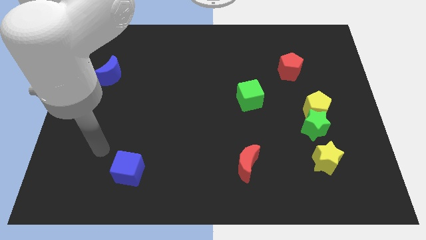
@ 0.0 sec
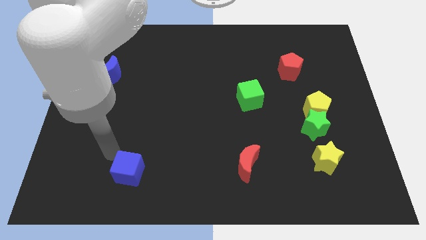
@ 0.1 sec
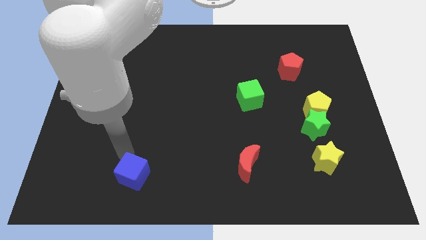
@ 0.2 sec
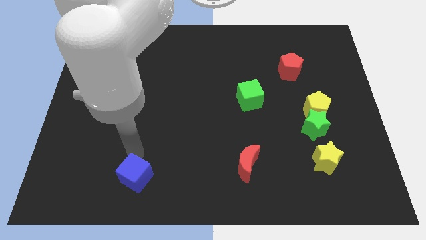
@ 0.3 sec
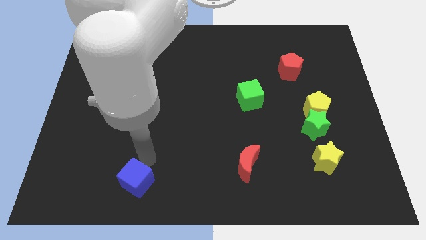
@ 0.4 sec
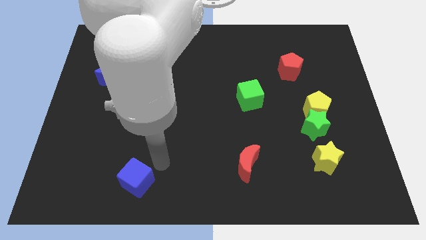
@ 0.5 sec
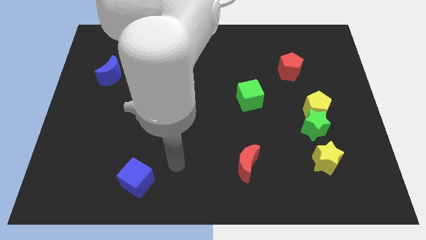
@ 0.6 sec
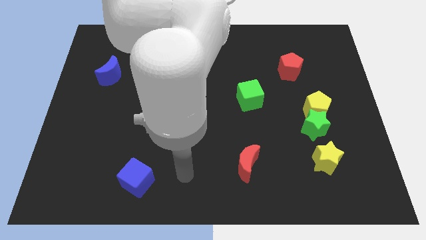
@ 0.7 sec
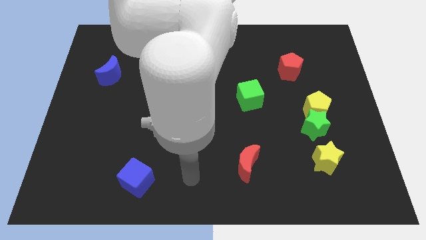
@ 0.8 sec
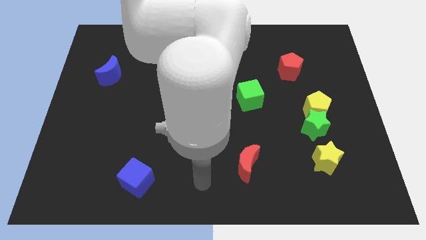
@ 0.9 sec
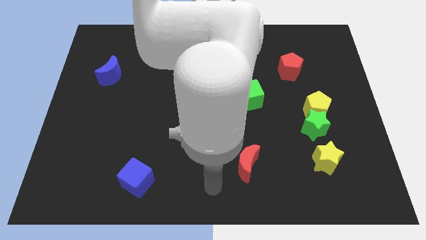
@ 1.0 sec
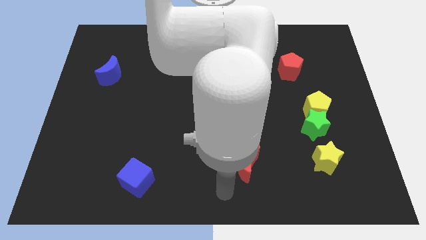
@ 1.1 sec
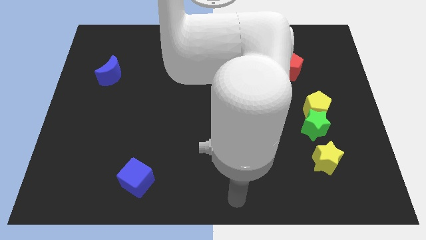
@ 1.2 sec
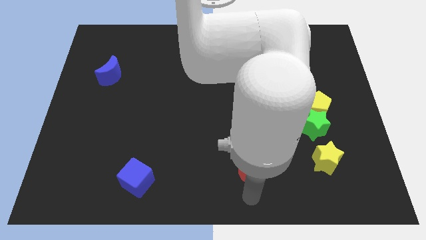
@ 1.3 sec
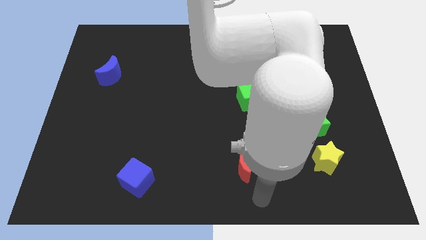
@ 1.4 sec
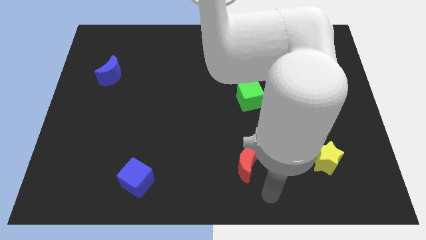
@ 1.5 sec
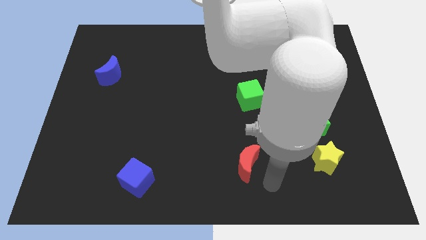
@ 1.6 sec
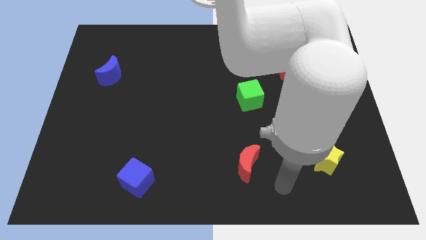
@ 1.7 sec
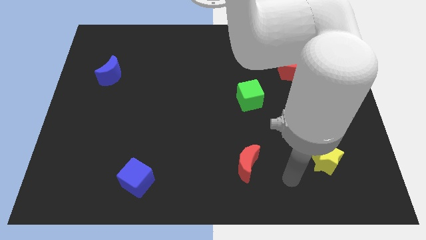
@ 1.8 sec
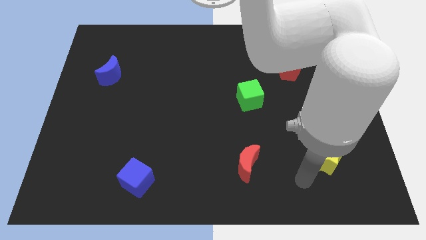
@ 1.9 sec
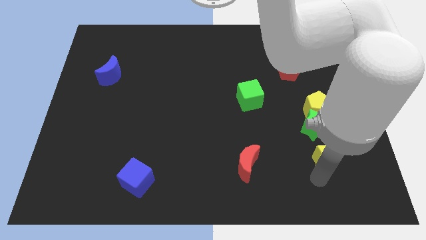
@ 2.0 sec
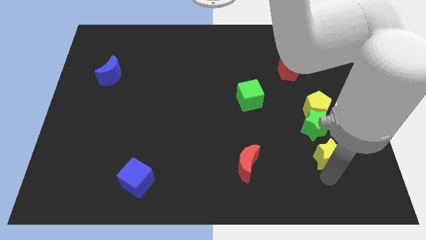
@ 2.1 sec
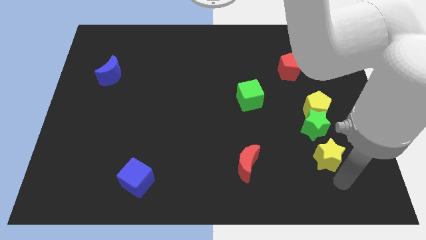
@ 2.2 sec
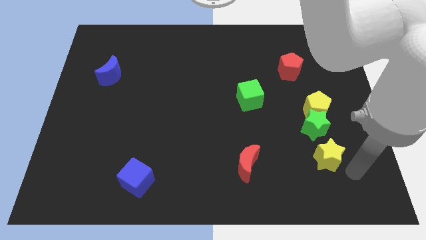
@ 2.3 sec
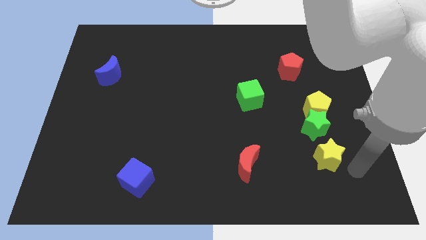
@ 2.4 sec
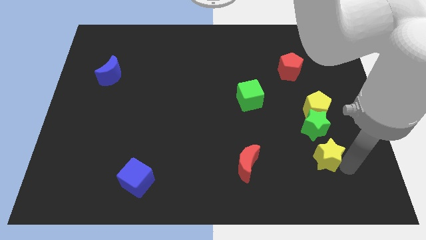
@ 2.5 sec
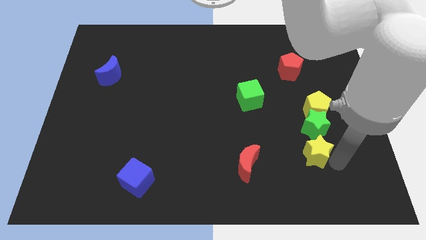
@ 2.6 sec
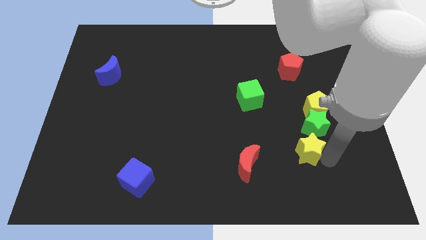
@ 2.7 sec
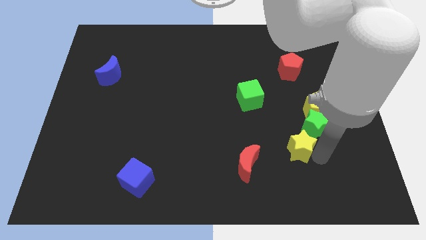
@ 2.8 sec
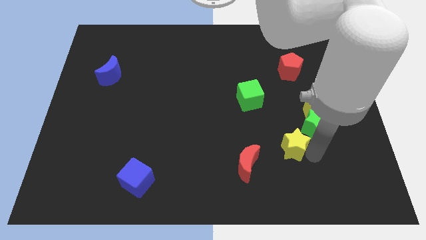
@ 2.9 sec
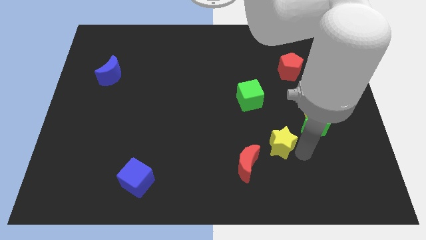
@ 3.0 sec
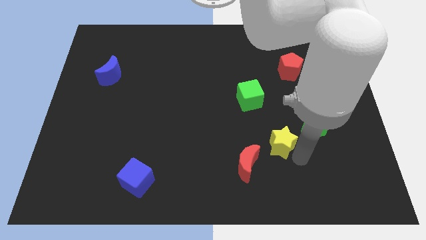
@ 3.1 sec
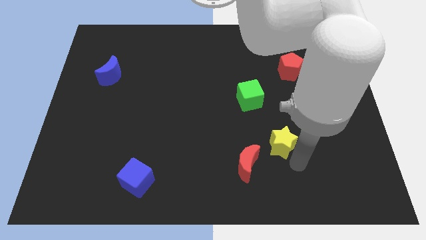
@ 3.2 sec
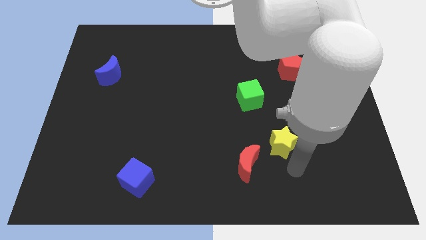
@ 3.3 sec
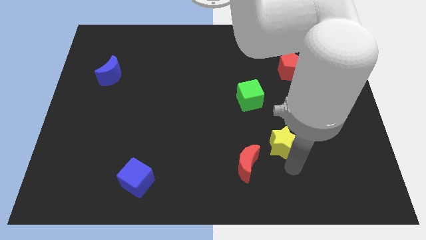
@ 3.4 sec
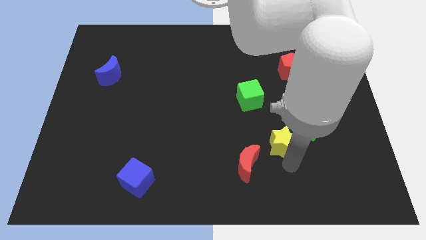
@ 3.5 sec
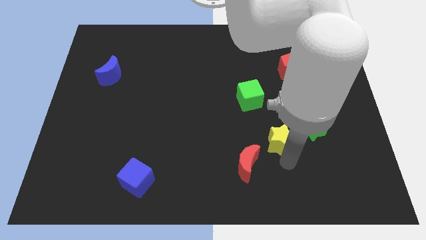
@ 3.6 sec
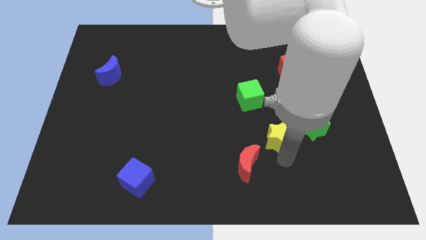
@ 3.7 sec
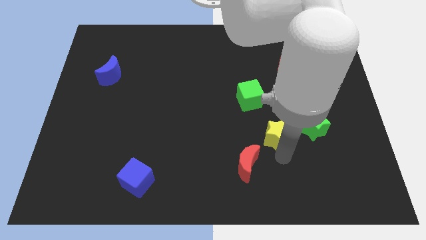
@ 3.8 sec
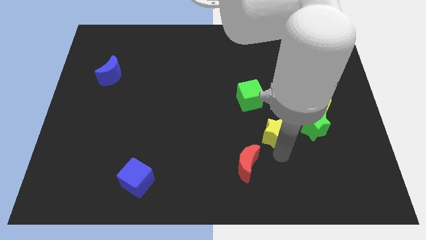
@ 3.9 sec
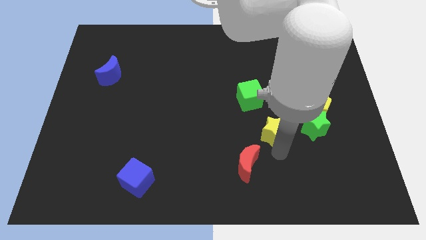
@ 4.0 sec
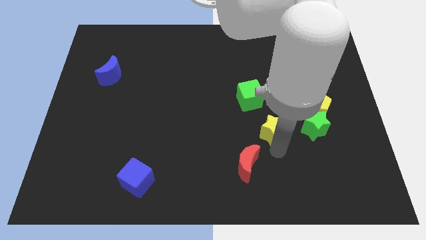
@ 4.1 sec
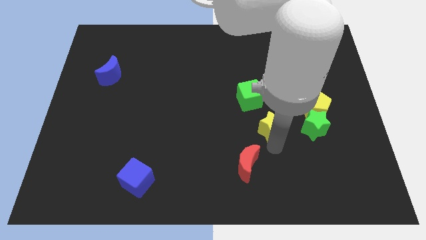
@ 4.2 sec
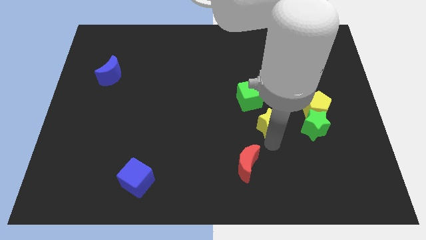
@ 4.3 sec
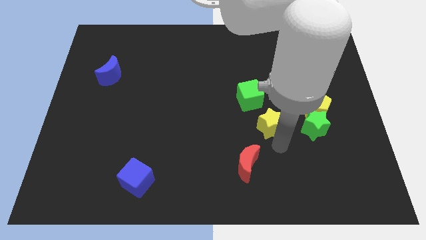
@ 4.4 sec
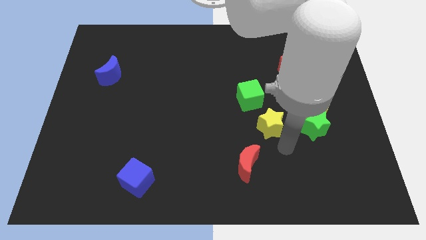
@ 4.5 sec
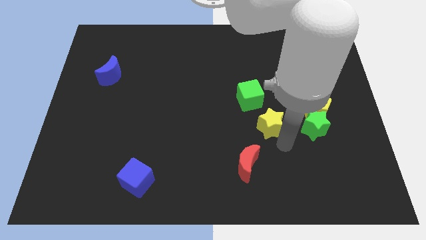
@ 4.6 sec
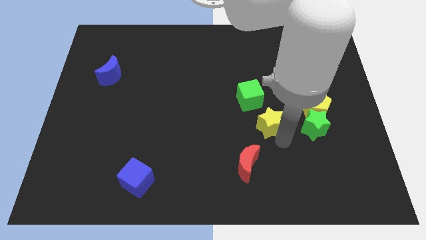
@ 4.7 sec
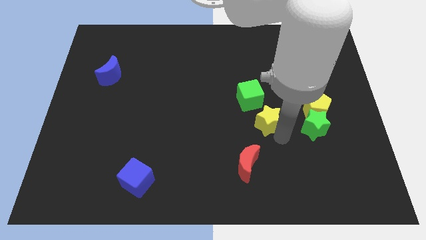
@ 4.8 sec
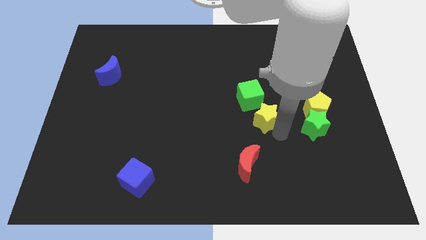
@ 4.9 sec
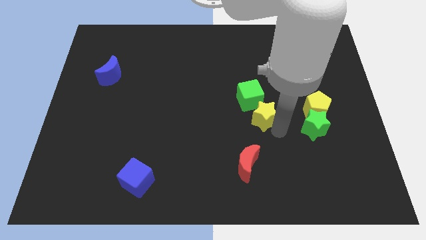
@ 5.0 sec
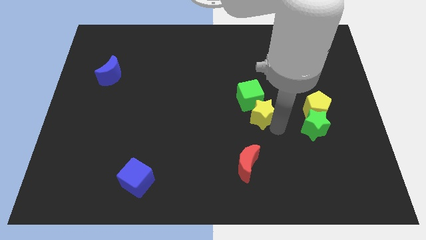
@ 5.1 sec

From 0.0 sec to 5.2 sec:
move the yellow star towards the green cube

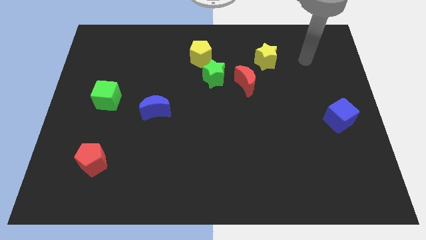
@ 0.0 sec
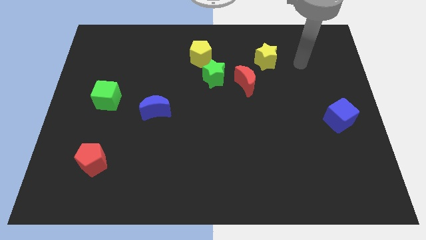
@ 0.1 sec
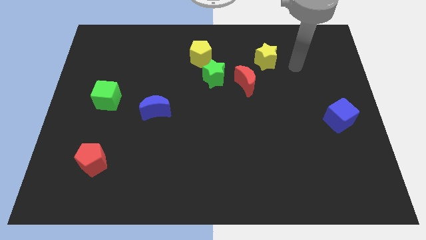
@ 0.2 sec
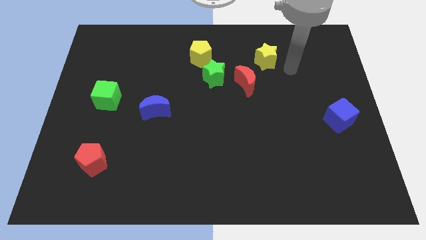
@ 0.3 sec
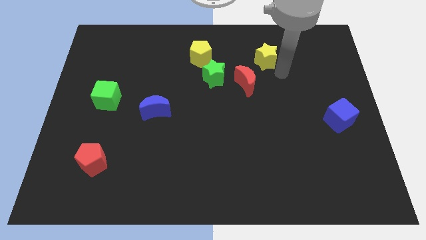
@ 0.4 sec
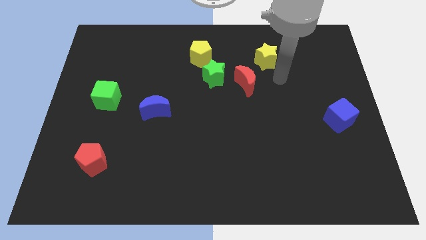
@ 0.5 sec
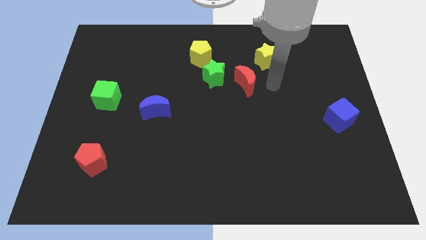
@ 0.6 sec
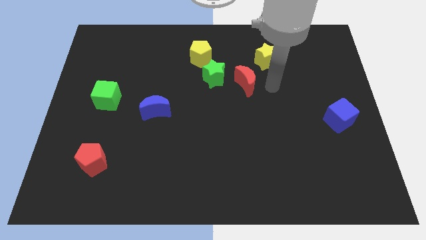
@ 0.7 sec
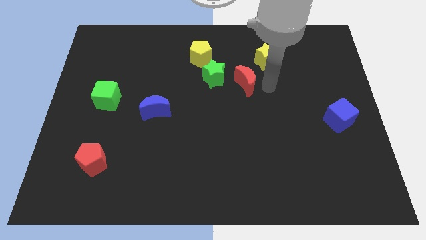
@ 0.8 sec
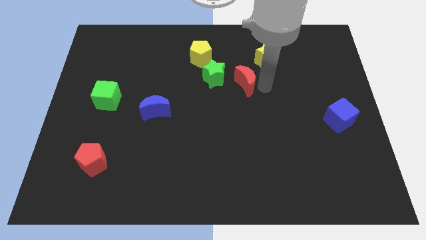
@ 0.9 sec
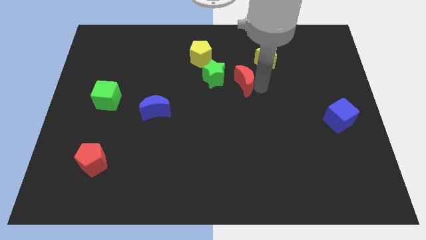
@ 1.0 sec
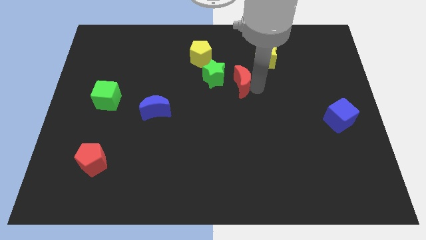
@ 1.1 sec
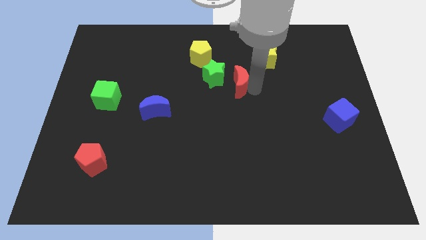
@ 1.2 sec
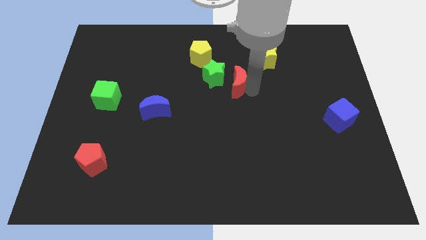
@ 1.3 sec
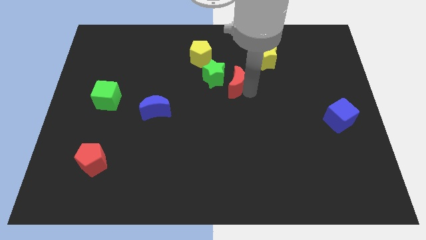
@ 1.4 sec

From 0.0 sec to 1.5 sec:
move the red moon close to the green star

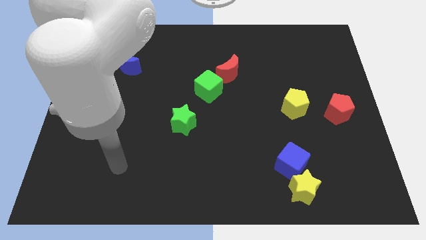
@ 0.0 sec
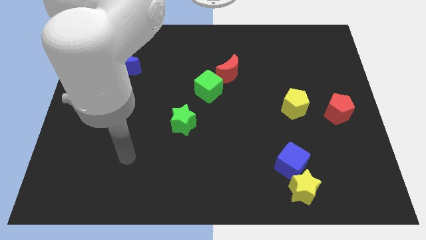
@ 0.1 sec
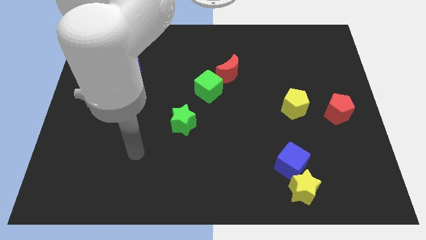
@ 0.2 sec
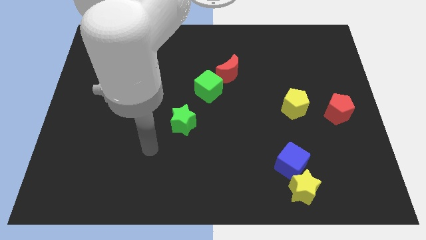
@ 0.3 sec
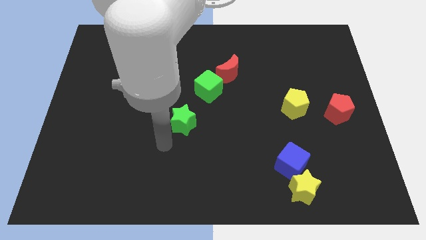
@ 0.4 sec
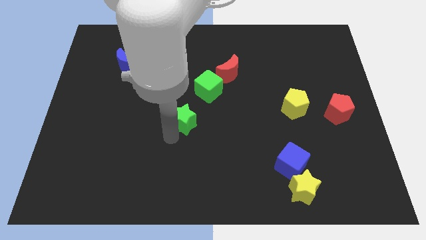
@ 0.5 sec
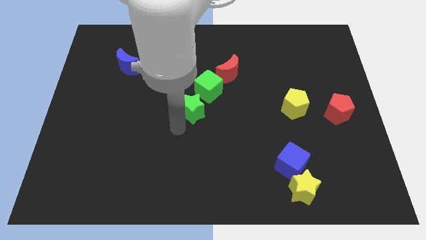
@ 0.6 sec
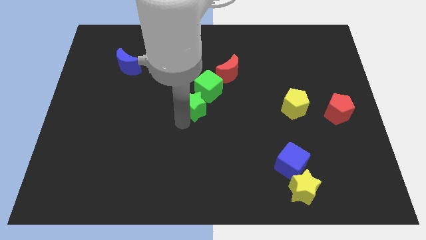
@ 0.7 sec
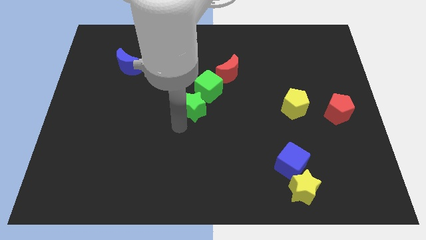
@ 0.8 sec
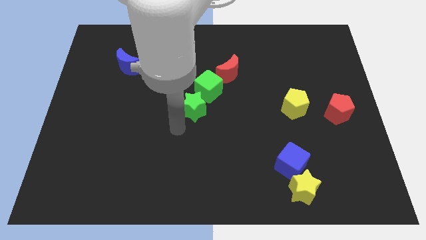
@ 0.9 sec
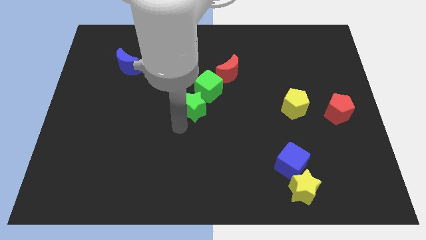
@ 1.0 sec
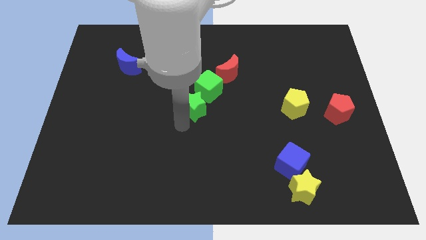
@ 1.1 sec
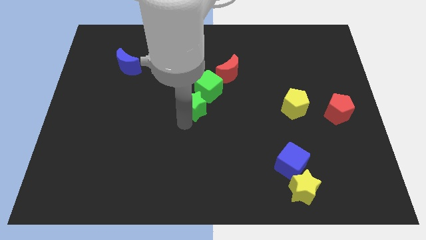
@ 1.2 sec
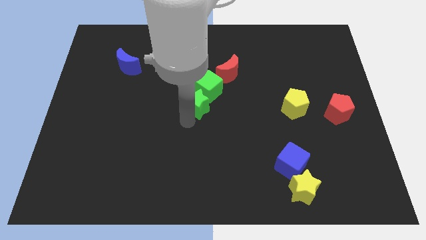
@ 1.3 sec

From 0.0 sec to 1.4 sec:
put the green star close to the green cube
